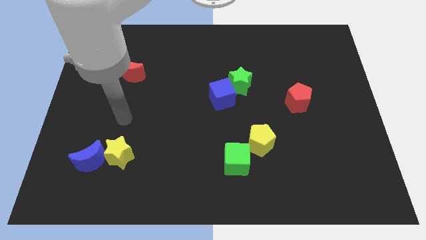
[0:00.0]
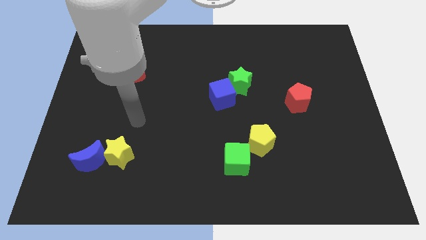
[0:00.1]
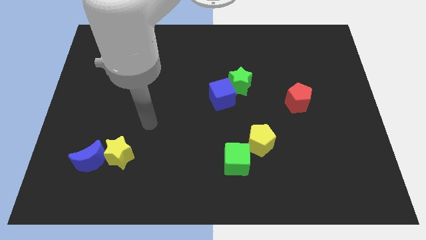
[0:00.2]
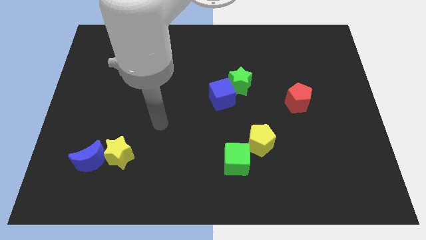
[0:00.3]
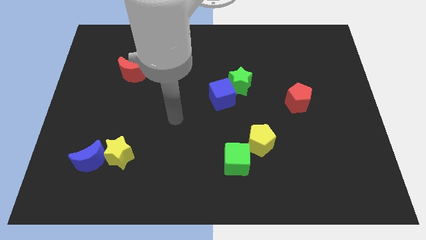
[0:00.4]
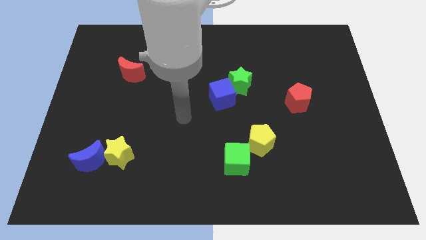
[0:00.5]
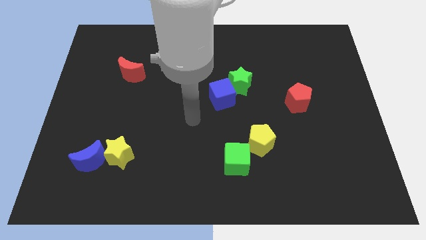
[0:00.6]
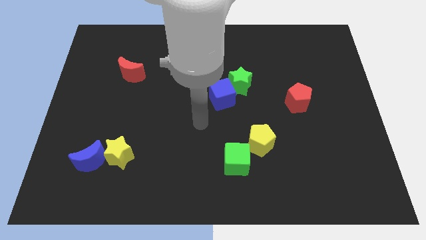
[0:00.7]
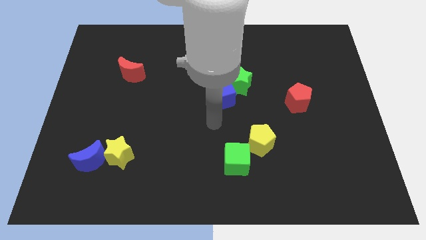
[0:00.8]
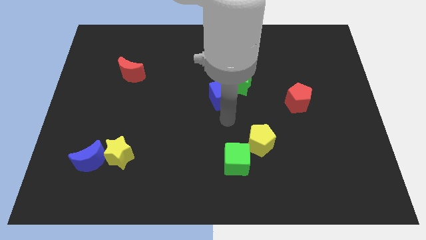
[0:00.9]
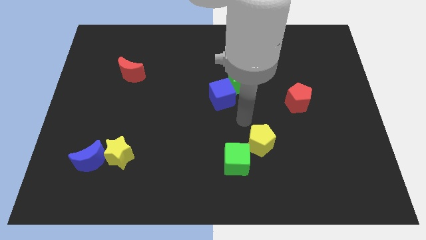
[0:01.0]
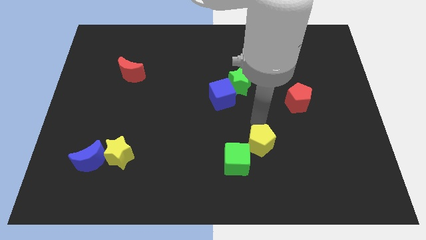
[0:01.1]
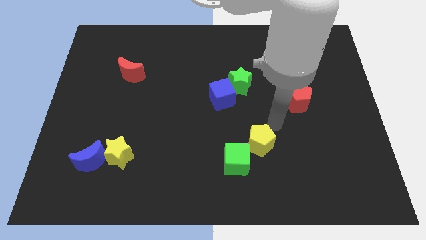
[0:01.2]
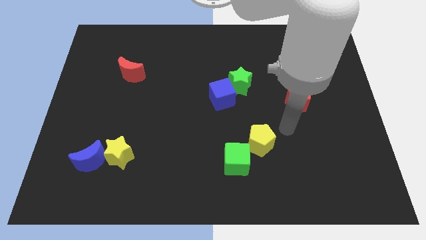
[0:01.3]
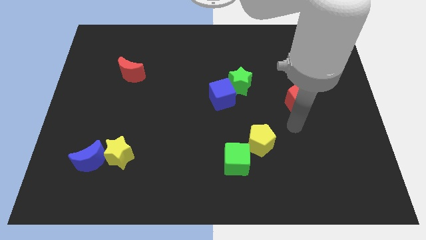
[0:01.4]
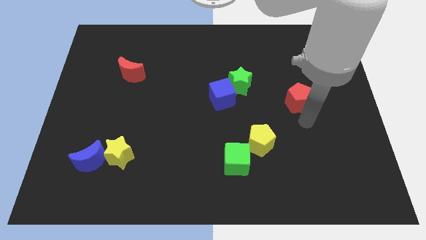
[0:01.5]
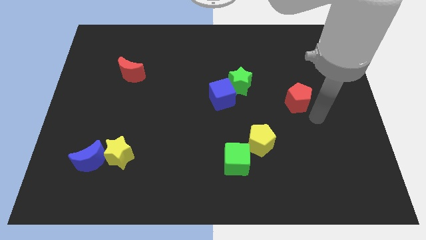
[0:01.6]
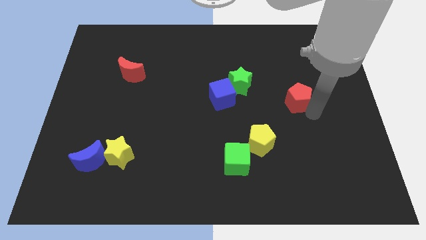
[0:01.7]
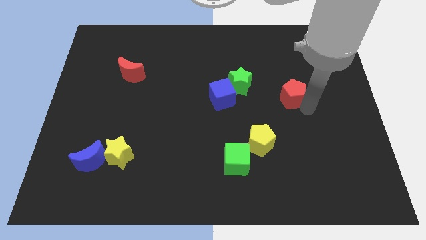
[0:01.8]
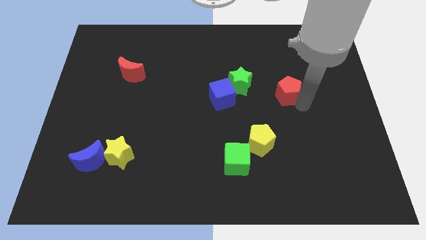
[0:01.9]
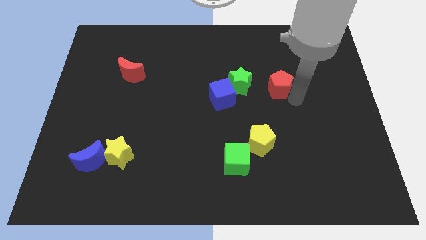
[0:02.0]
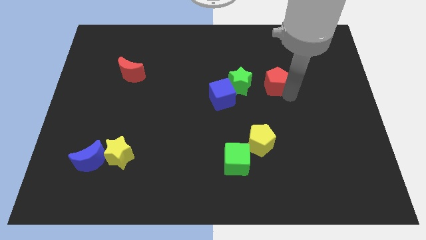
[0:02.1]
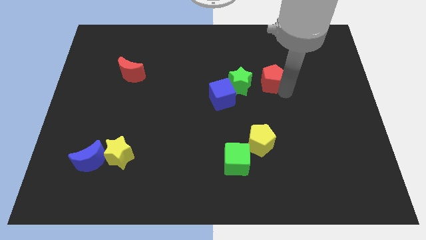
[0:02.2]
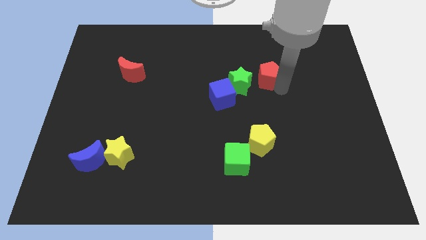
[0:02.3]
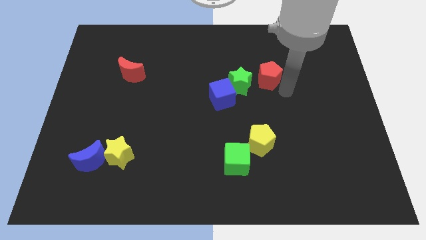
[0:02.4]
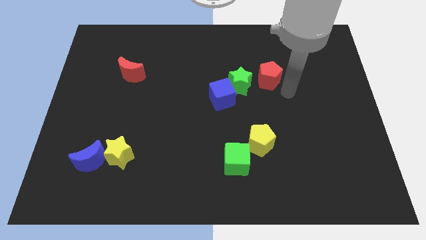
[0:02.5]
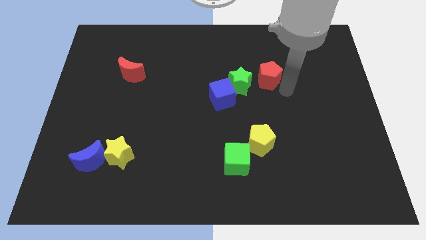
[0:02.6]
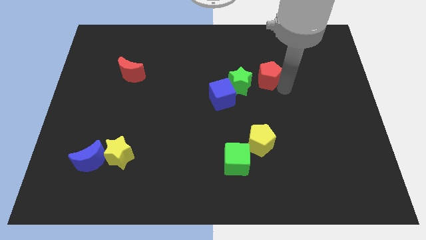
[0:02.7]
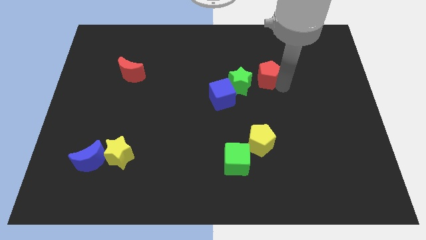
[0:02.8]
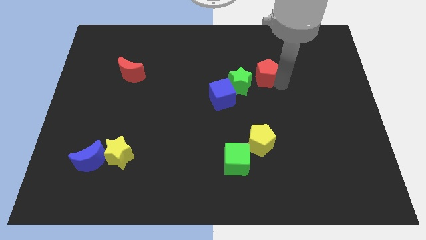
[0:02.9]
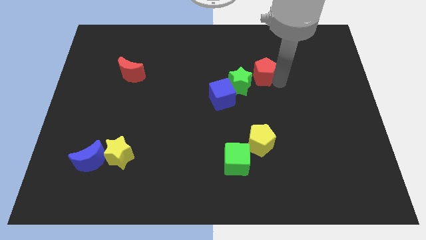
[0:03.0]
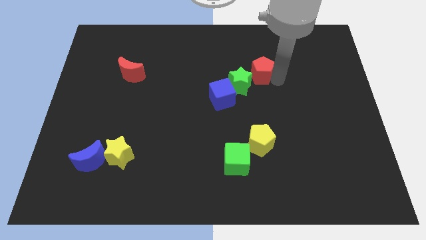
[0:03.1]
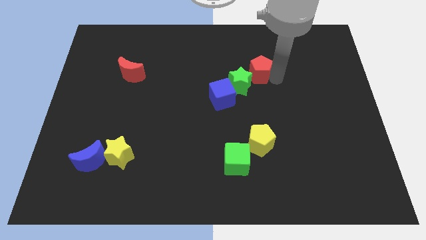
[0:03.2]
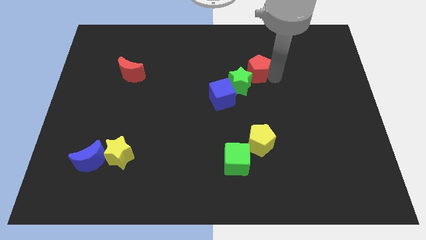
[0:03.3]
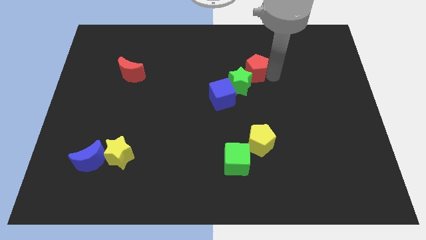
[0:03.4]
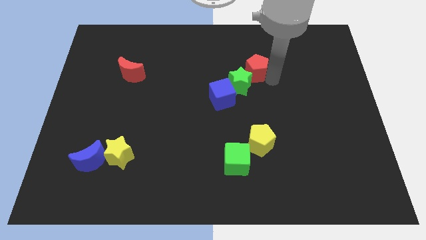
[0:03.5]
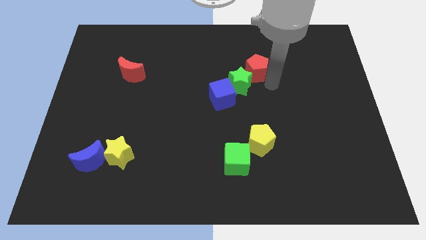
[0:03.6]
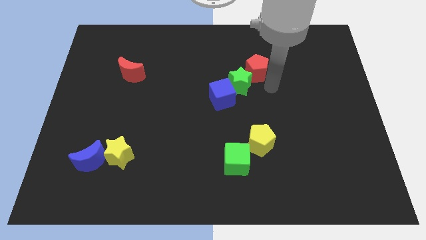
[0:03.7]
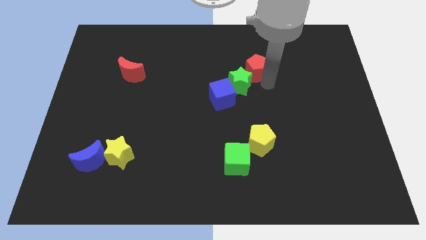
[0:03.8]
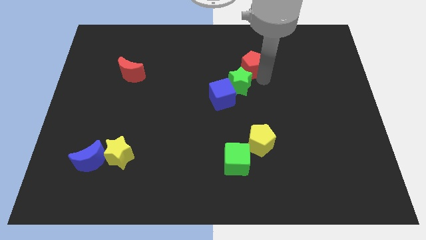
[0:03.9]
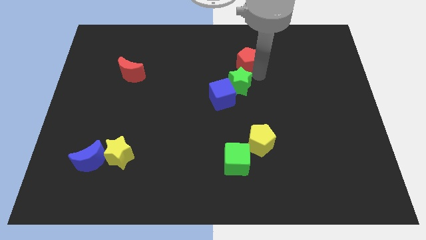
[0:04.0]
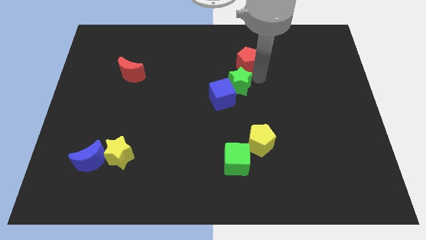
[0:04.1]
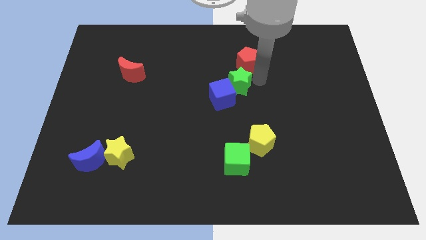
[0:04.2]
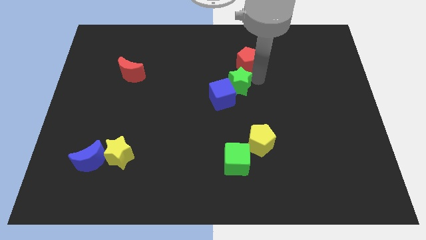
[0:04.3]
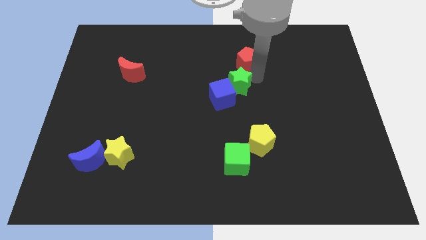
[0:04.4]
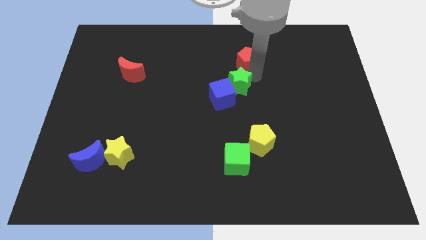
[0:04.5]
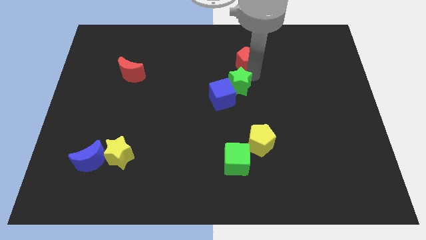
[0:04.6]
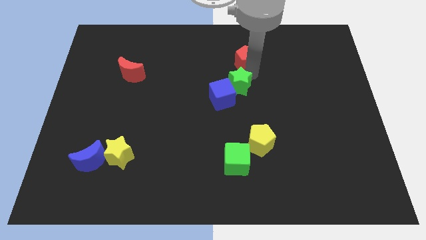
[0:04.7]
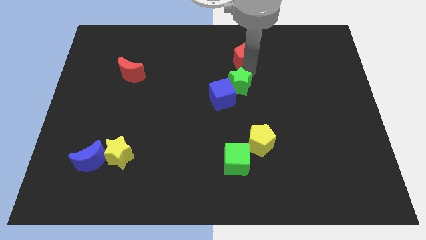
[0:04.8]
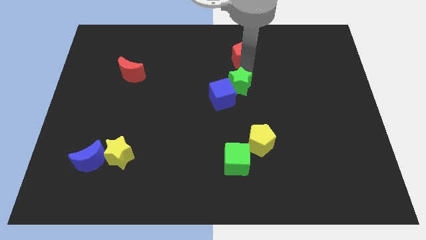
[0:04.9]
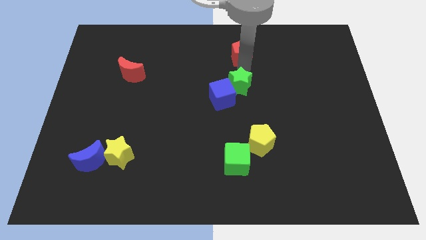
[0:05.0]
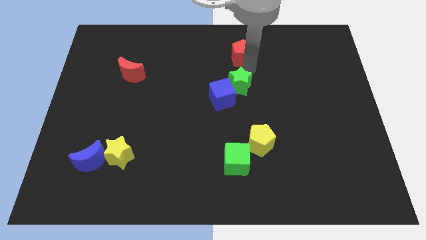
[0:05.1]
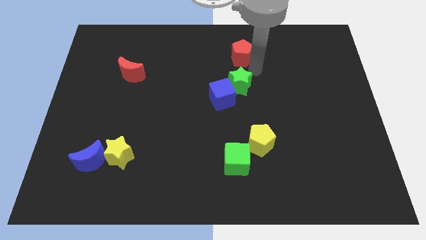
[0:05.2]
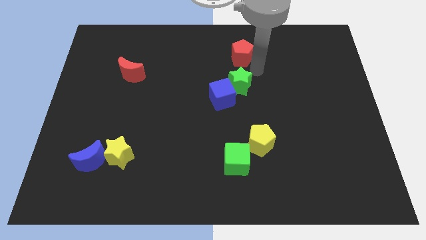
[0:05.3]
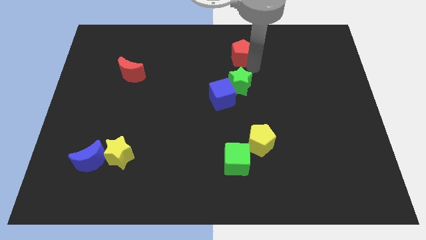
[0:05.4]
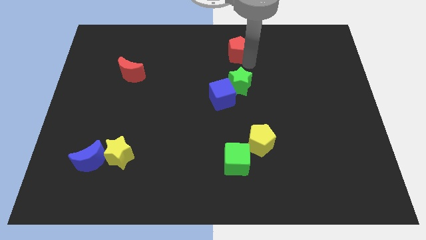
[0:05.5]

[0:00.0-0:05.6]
slide the red pentagon to the top
